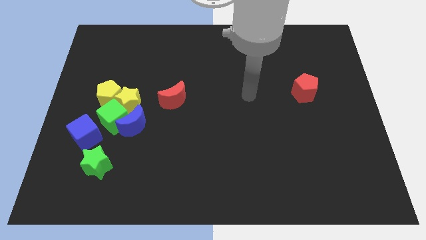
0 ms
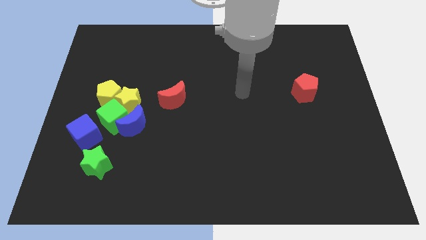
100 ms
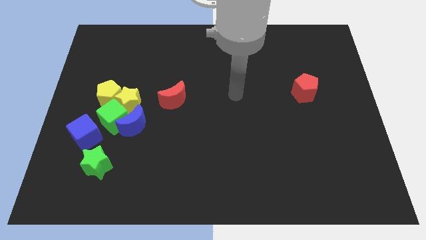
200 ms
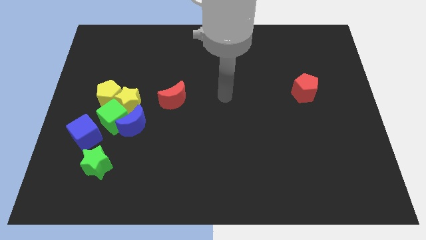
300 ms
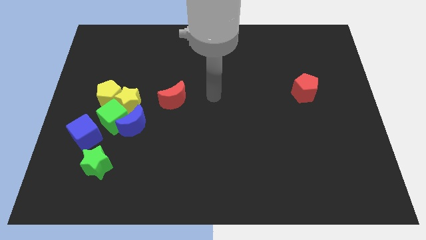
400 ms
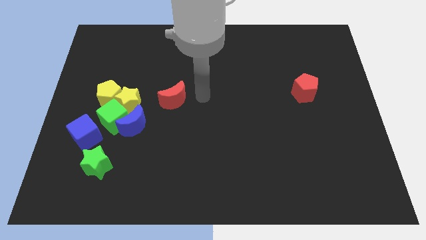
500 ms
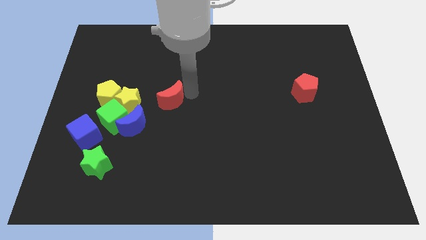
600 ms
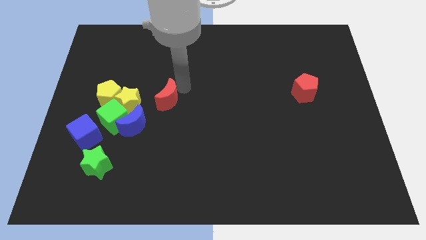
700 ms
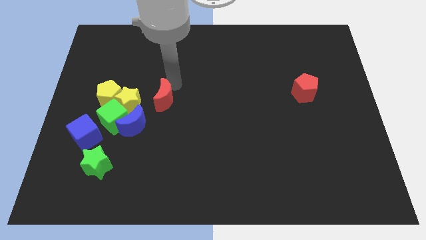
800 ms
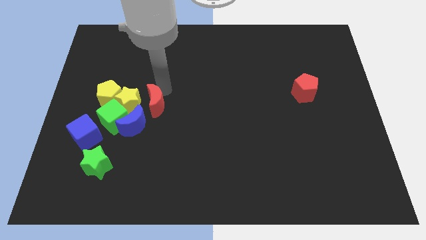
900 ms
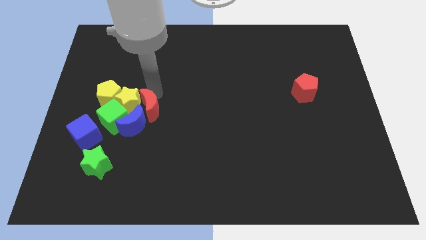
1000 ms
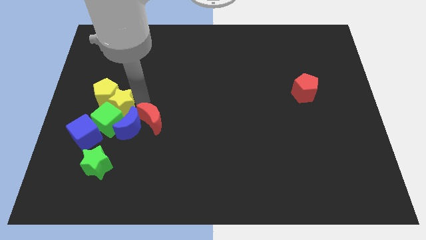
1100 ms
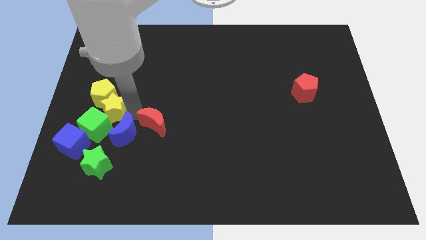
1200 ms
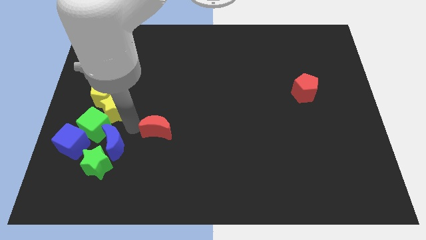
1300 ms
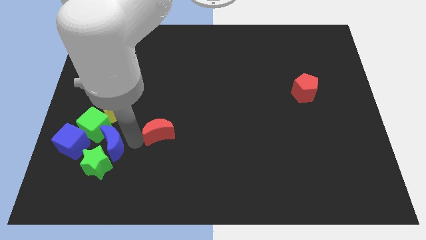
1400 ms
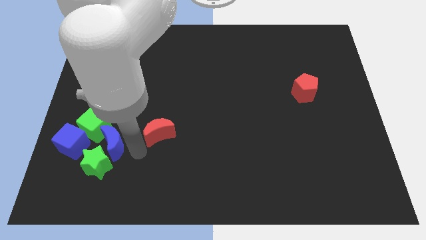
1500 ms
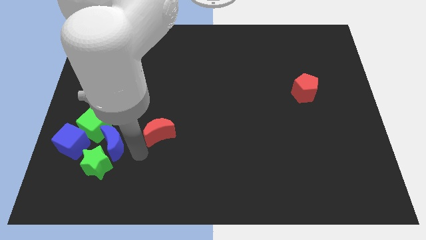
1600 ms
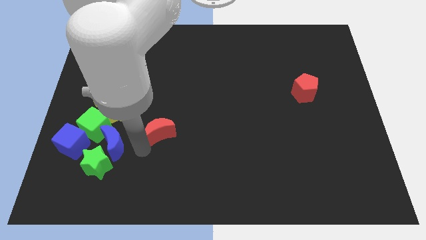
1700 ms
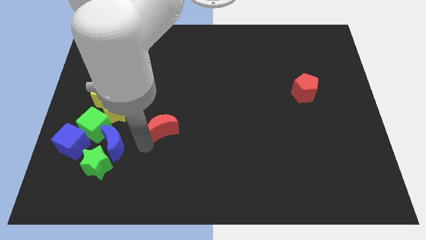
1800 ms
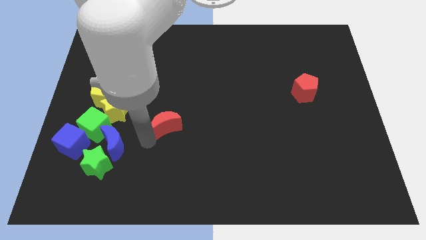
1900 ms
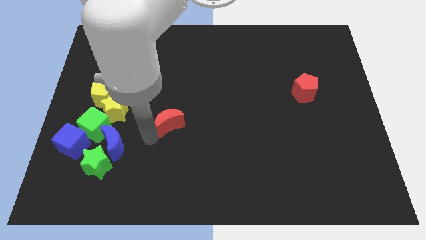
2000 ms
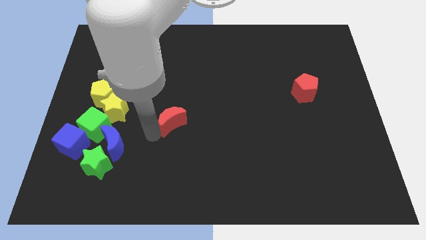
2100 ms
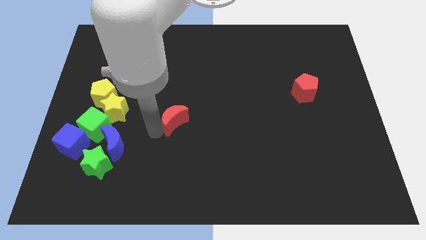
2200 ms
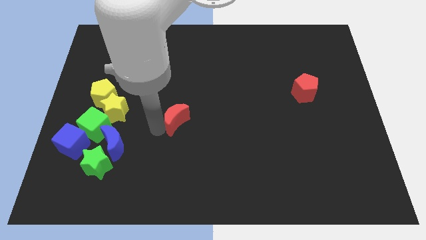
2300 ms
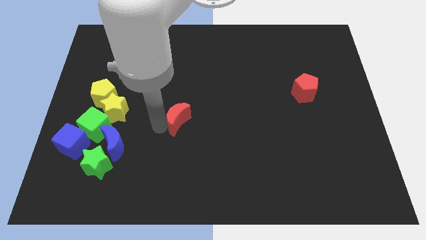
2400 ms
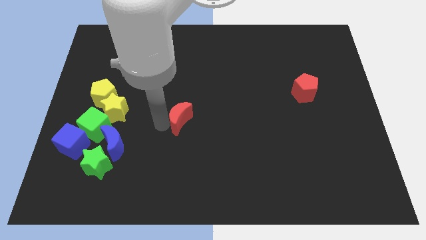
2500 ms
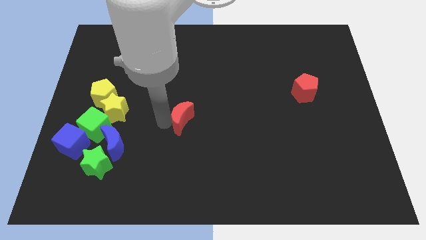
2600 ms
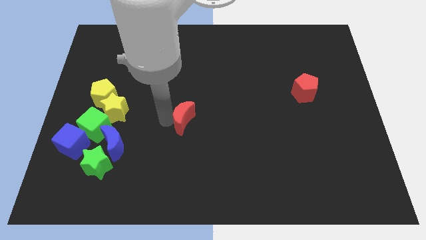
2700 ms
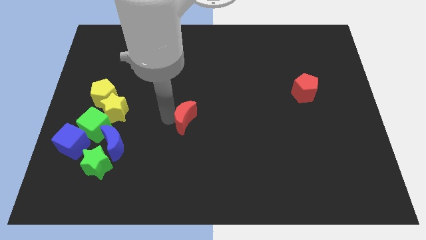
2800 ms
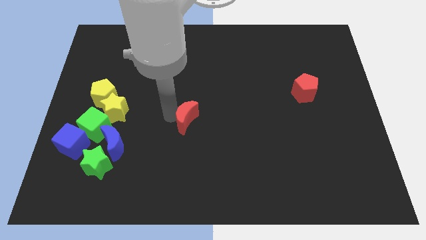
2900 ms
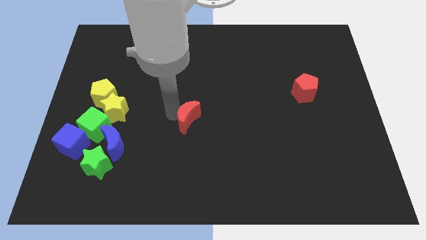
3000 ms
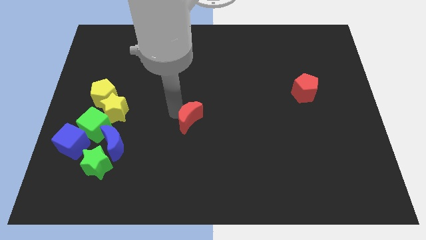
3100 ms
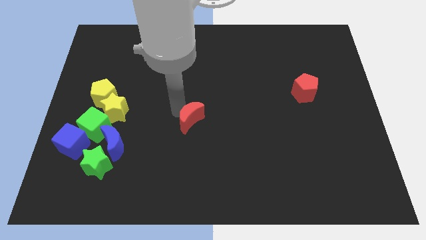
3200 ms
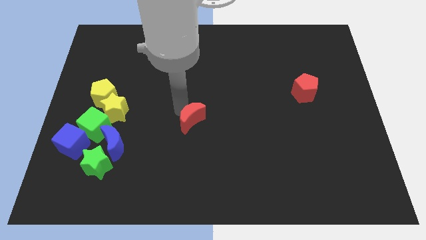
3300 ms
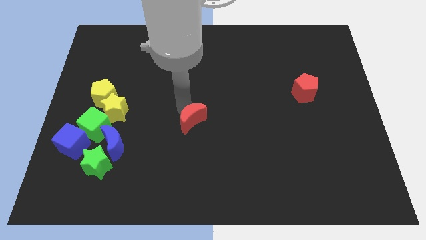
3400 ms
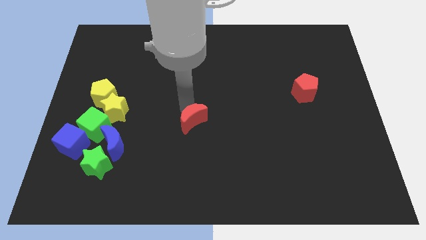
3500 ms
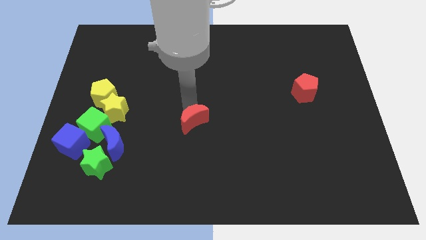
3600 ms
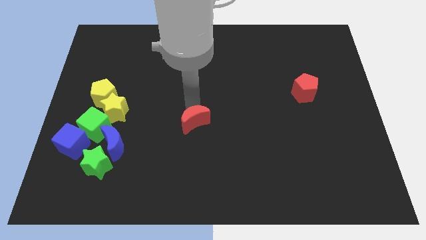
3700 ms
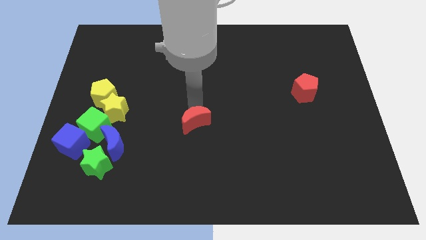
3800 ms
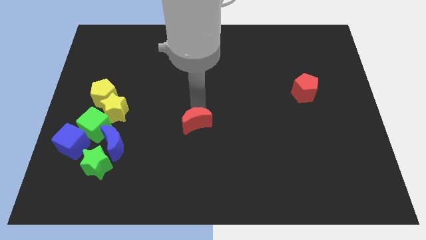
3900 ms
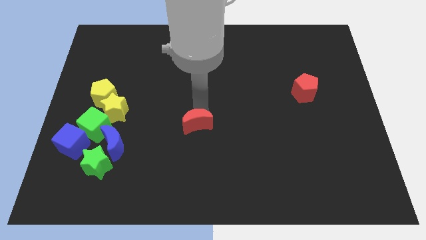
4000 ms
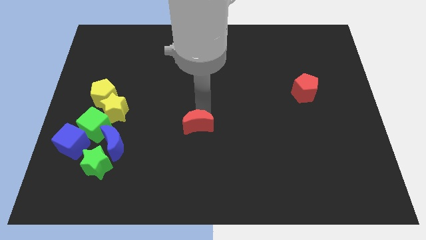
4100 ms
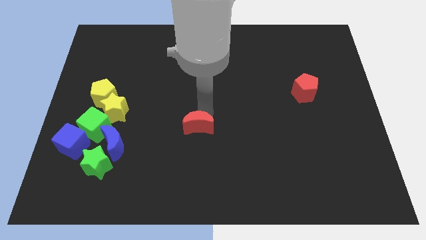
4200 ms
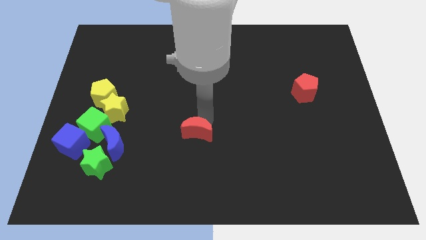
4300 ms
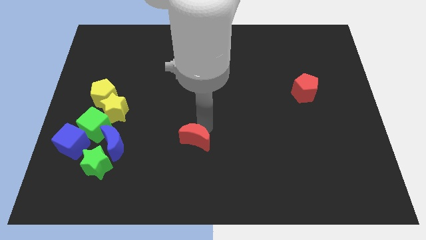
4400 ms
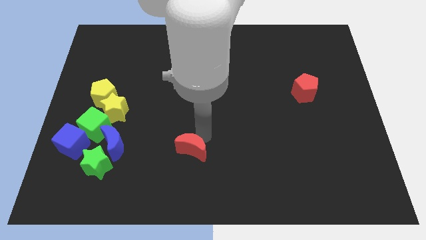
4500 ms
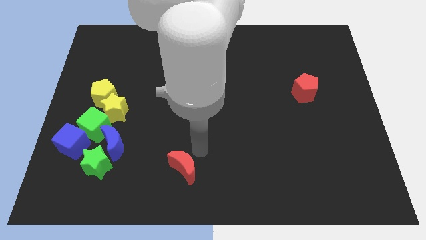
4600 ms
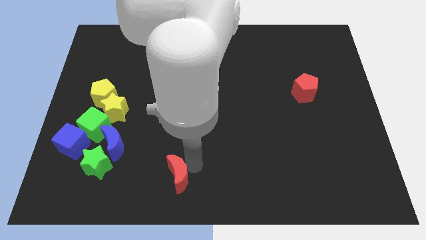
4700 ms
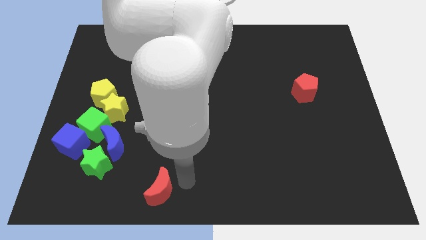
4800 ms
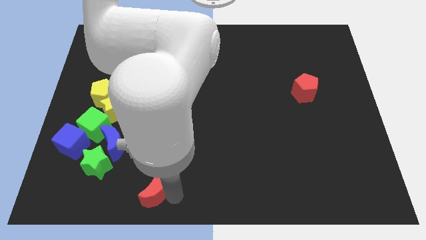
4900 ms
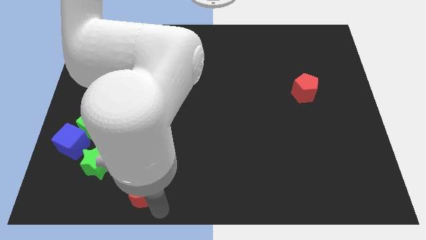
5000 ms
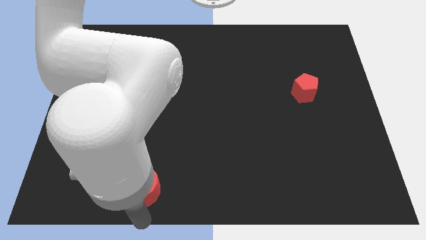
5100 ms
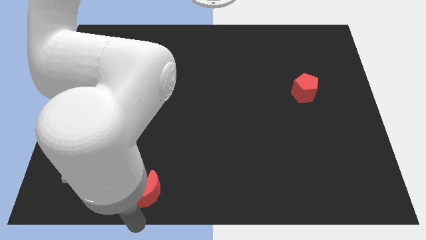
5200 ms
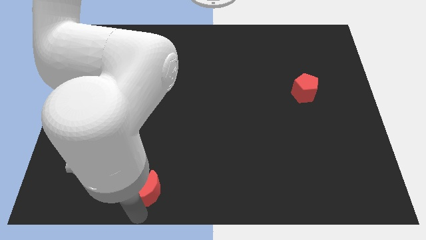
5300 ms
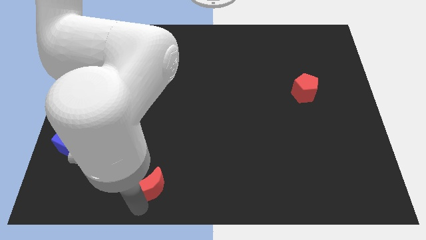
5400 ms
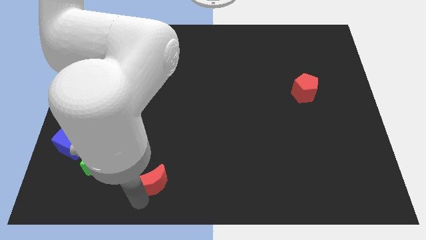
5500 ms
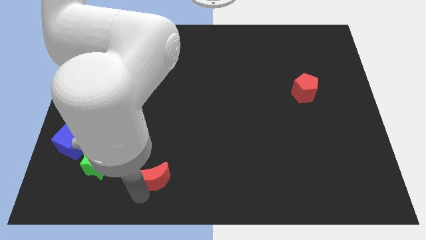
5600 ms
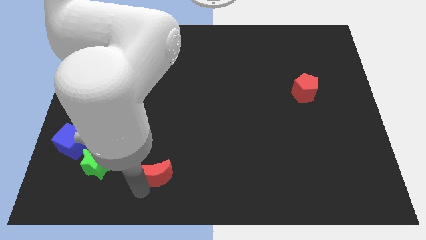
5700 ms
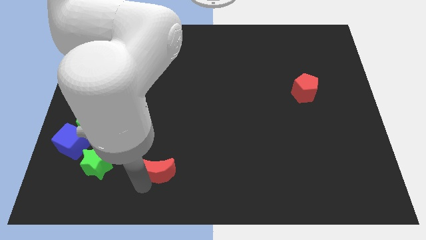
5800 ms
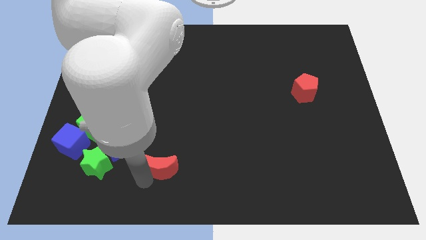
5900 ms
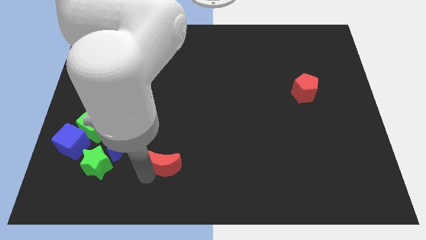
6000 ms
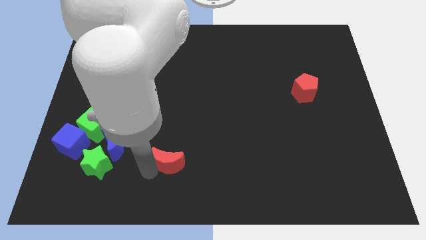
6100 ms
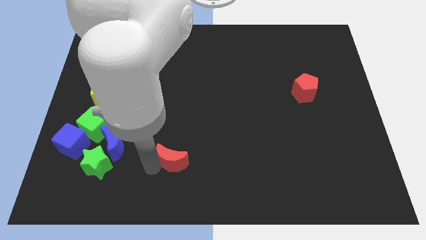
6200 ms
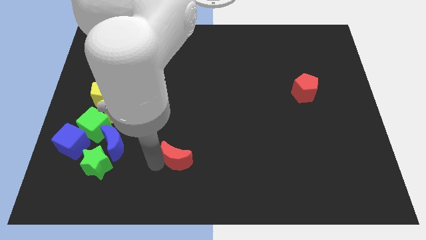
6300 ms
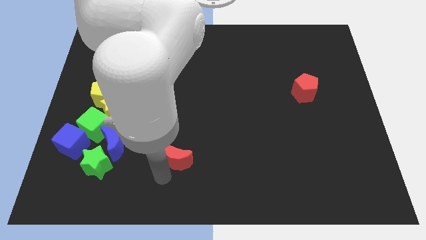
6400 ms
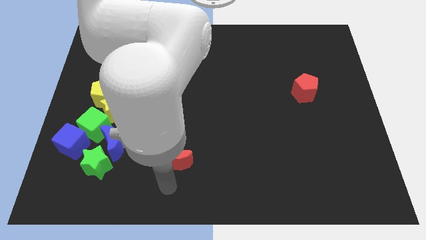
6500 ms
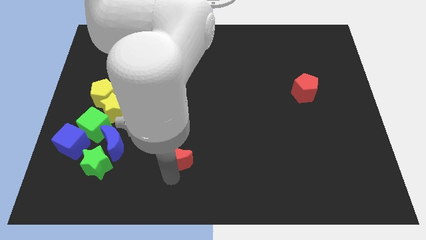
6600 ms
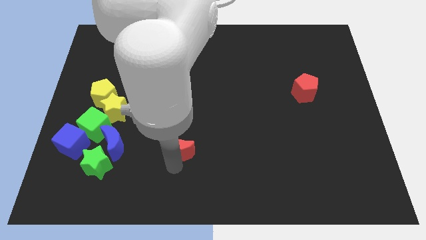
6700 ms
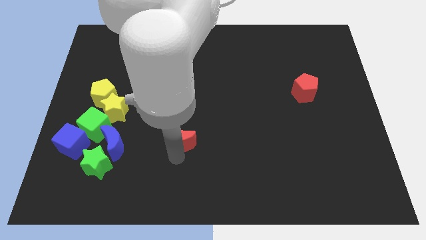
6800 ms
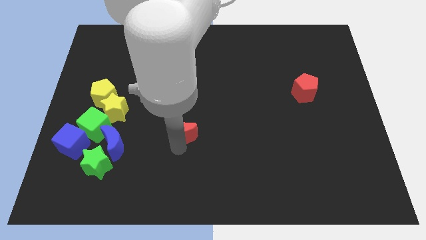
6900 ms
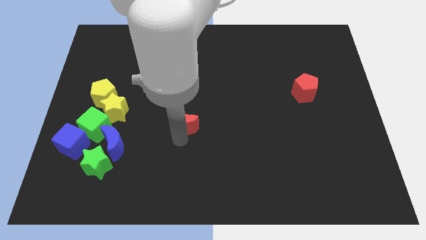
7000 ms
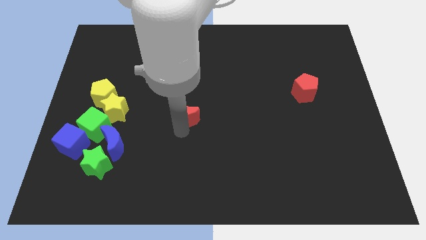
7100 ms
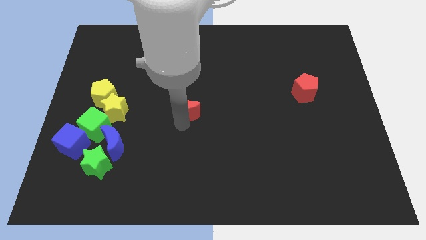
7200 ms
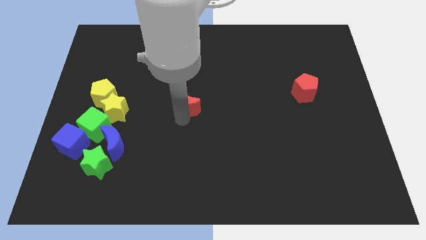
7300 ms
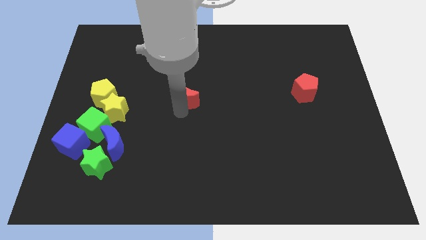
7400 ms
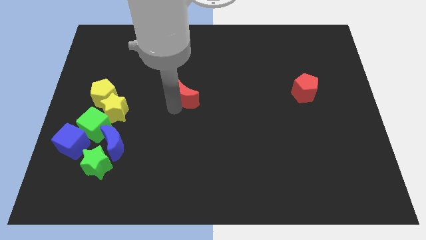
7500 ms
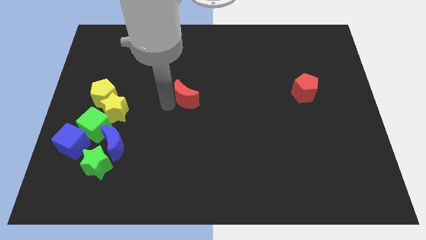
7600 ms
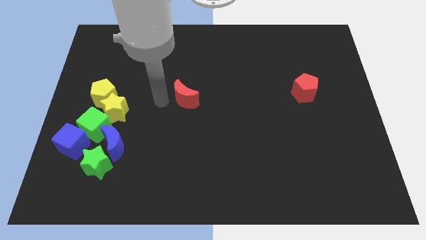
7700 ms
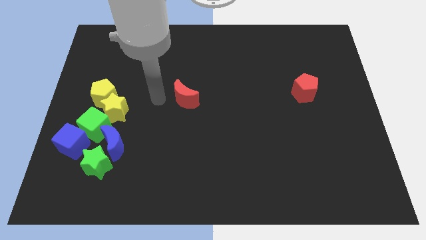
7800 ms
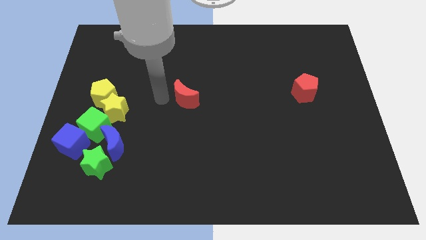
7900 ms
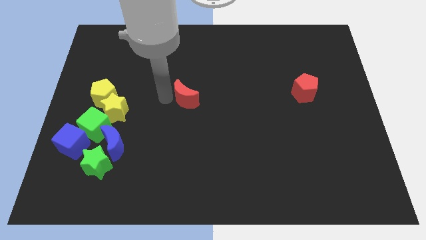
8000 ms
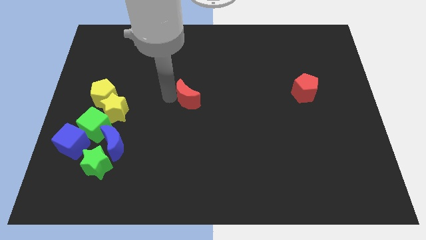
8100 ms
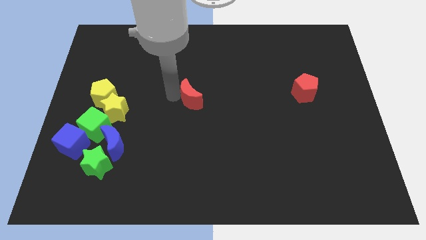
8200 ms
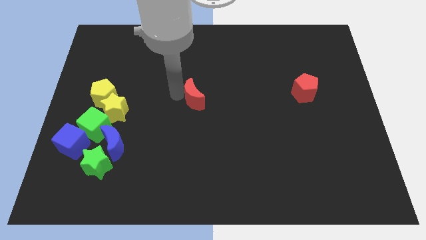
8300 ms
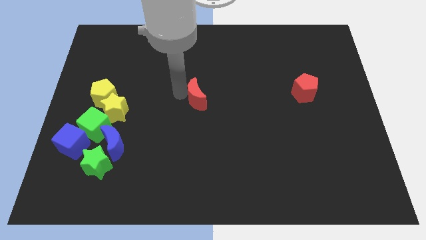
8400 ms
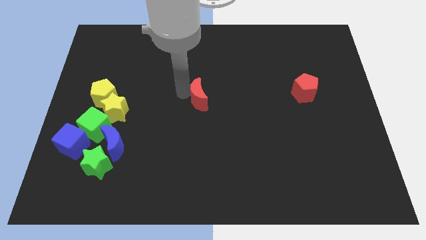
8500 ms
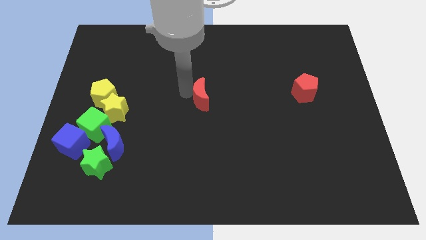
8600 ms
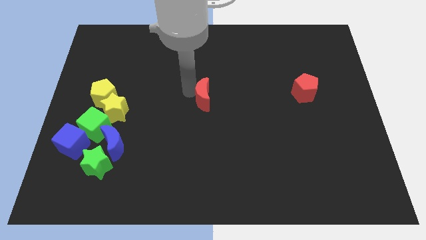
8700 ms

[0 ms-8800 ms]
push the red moon right slightly
